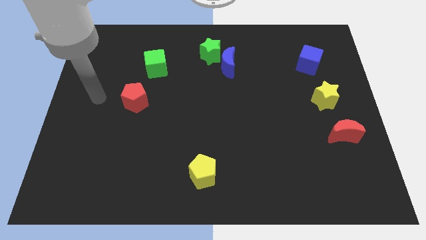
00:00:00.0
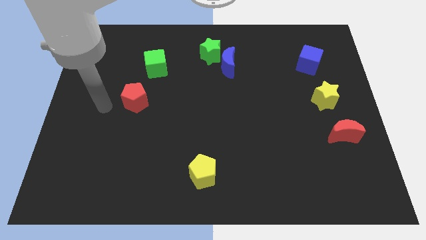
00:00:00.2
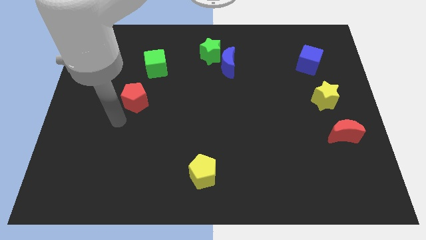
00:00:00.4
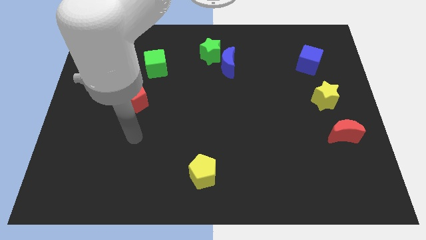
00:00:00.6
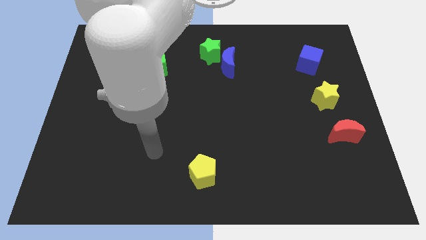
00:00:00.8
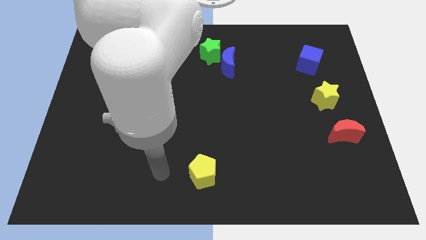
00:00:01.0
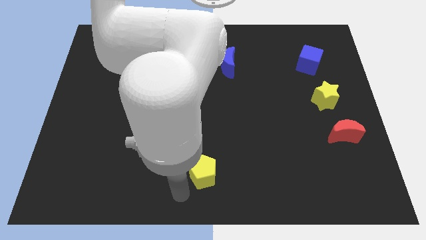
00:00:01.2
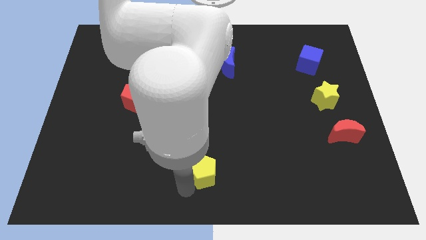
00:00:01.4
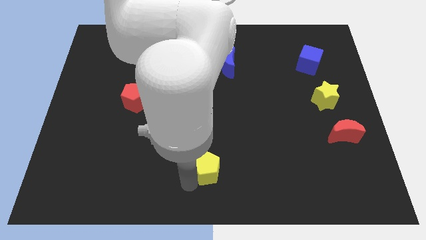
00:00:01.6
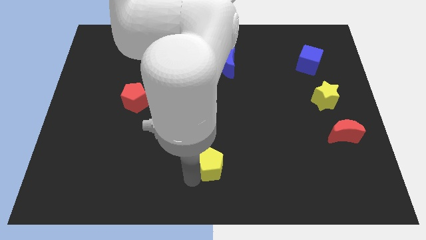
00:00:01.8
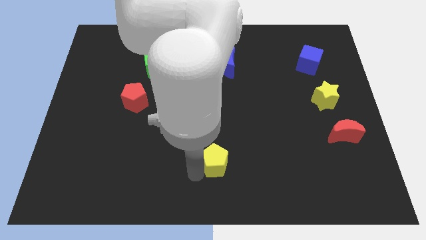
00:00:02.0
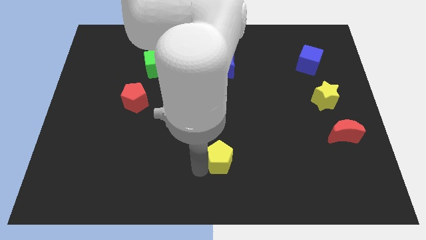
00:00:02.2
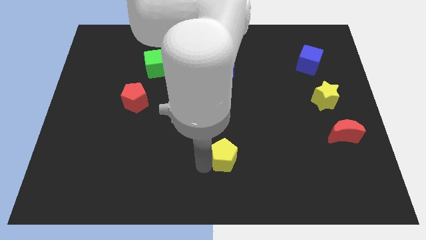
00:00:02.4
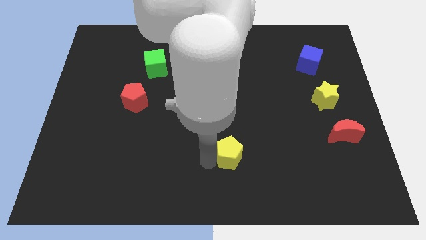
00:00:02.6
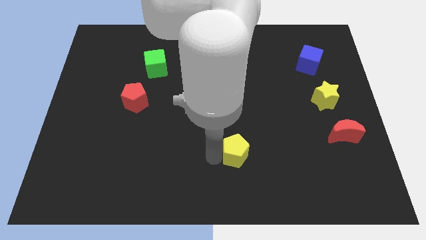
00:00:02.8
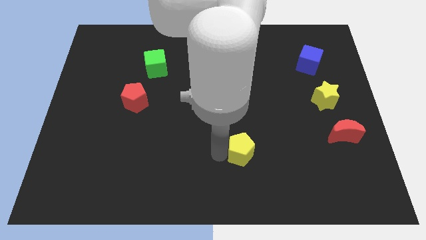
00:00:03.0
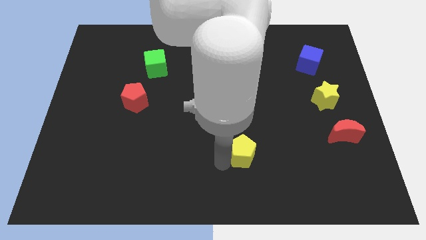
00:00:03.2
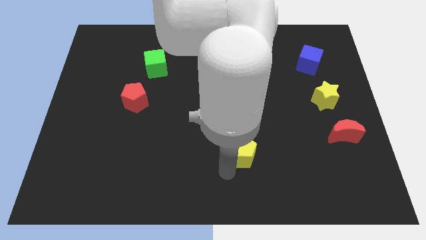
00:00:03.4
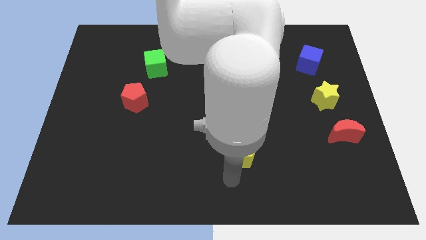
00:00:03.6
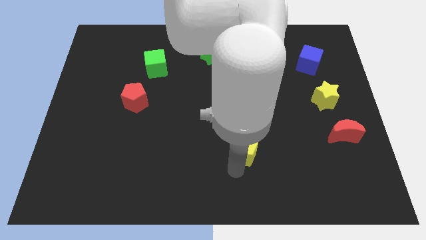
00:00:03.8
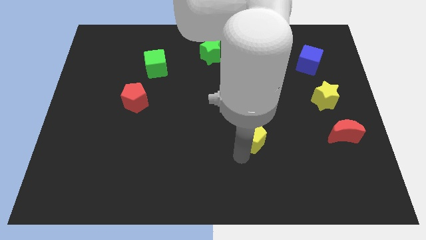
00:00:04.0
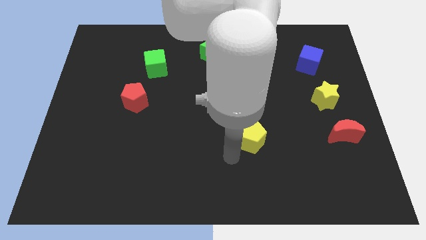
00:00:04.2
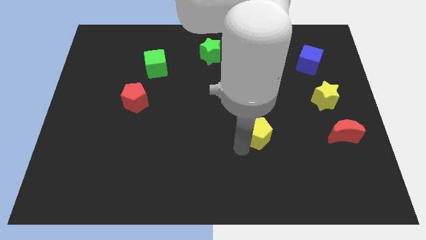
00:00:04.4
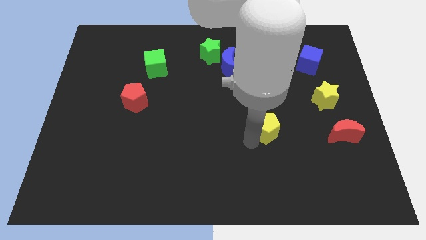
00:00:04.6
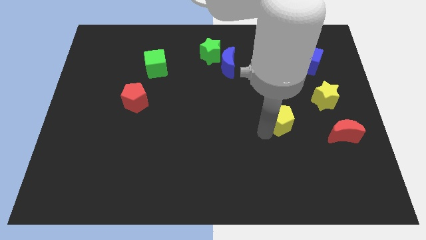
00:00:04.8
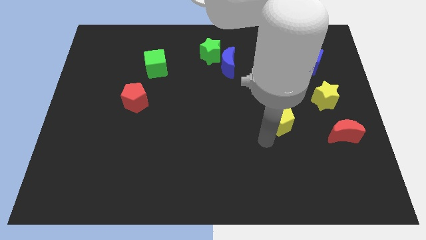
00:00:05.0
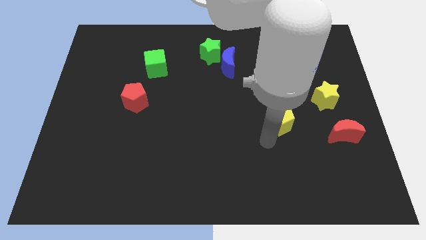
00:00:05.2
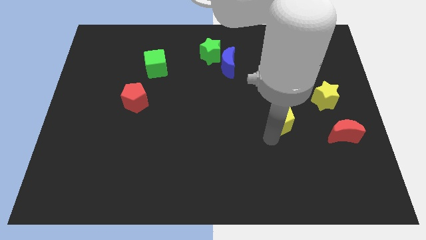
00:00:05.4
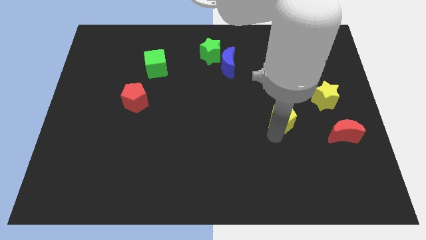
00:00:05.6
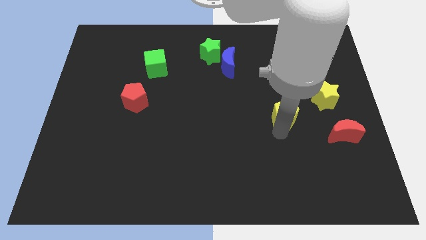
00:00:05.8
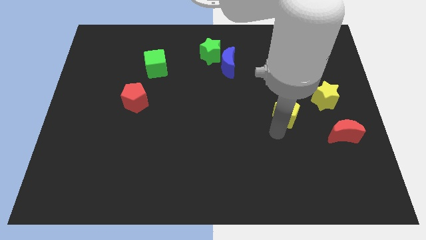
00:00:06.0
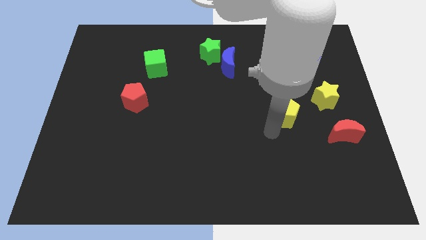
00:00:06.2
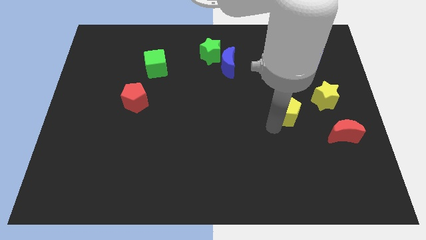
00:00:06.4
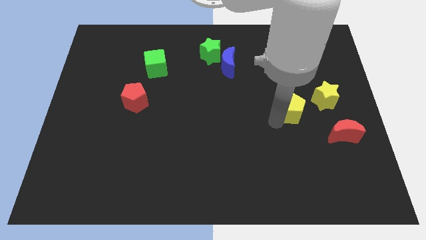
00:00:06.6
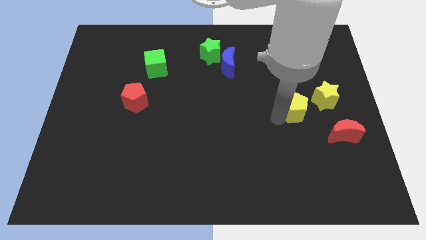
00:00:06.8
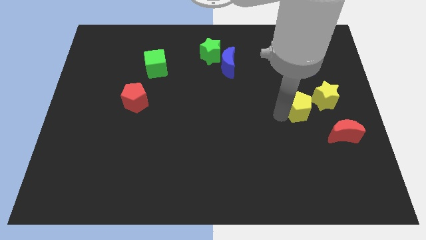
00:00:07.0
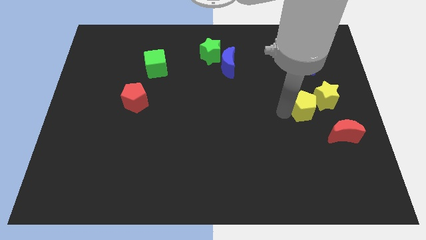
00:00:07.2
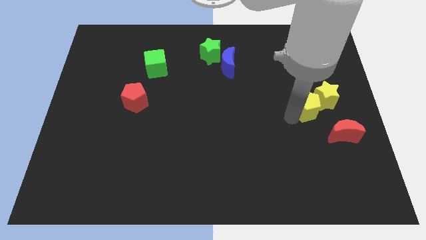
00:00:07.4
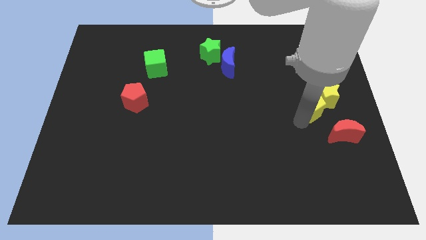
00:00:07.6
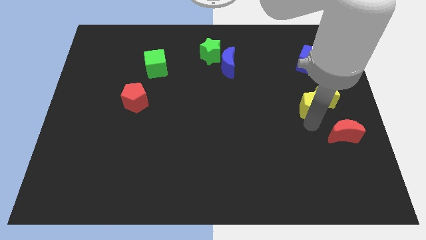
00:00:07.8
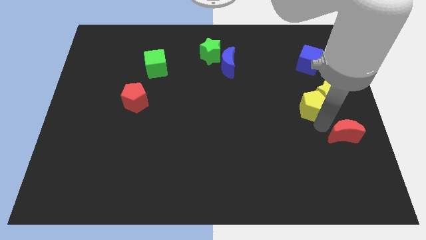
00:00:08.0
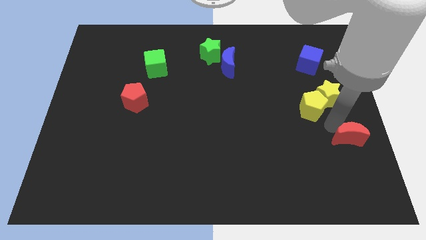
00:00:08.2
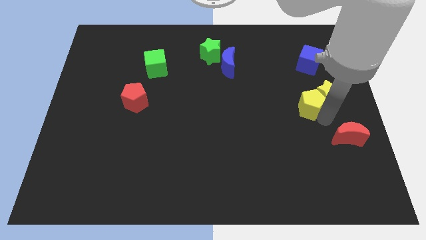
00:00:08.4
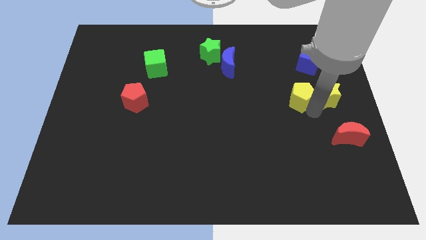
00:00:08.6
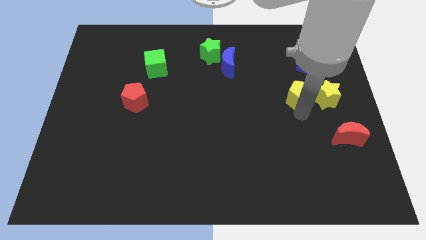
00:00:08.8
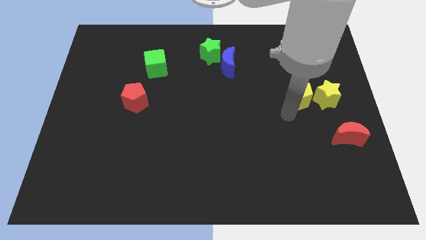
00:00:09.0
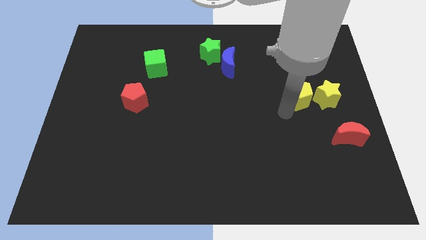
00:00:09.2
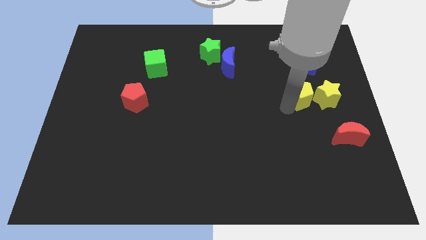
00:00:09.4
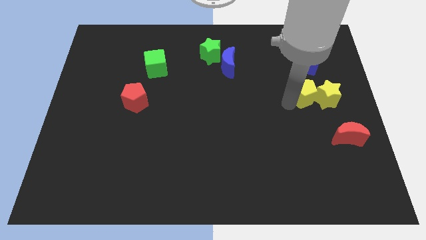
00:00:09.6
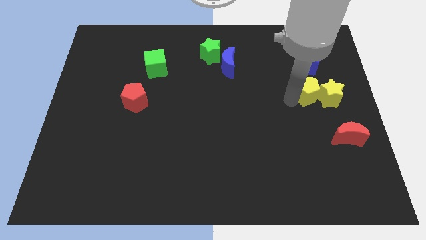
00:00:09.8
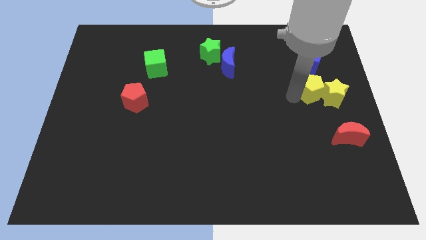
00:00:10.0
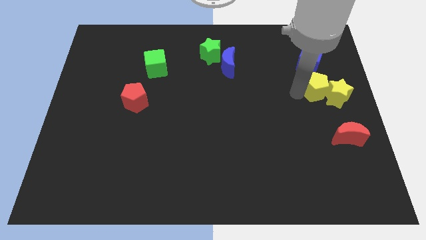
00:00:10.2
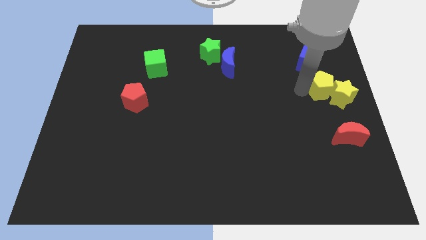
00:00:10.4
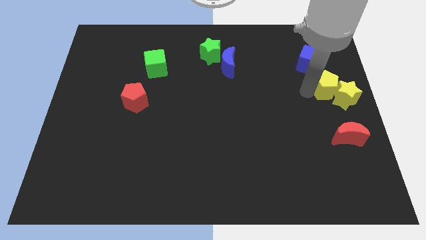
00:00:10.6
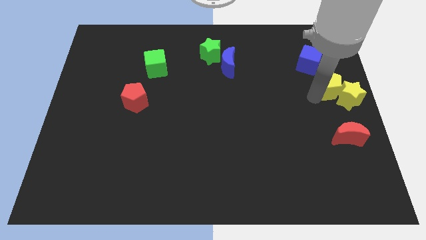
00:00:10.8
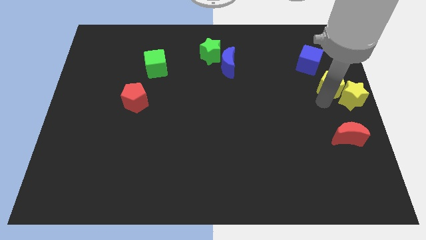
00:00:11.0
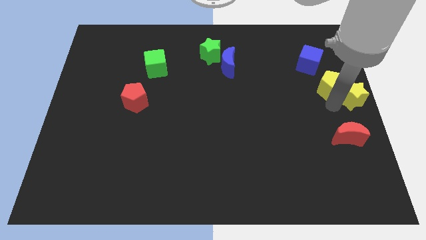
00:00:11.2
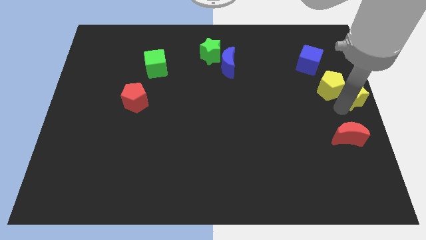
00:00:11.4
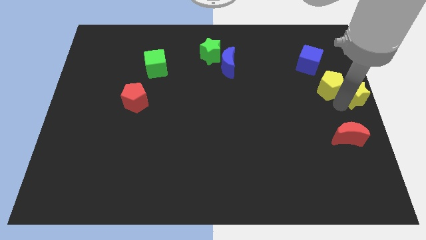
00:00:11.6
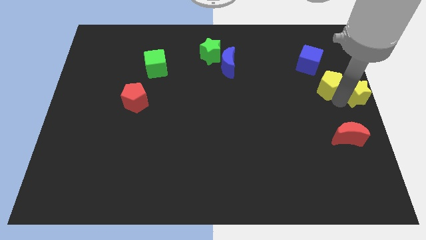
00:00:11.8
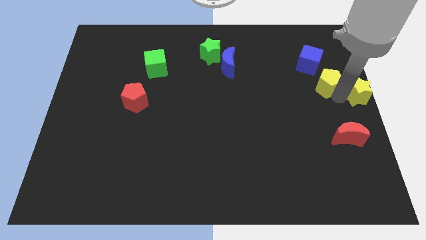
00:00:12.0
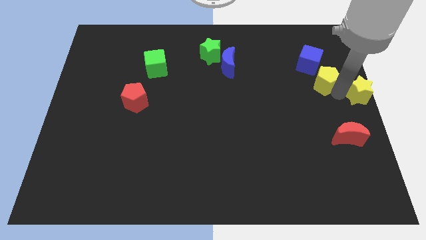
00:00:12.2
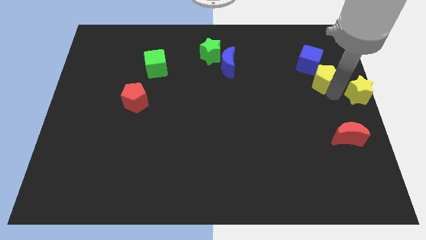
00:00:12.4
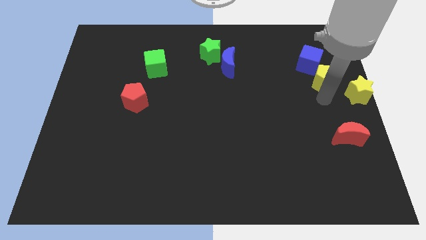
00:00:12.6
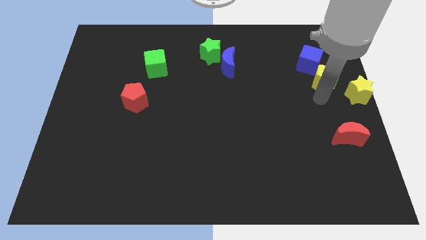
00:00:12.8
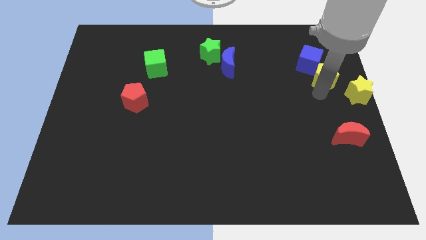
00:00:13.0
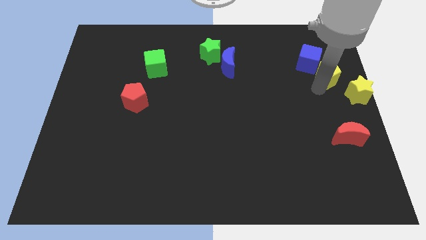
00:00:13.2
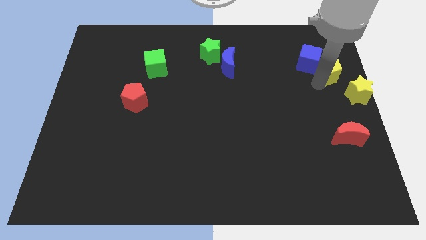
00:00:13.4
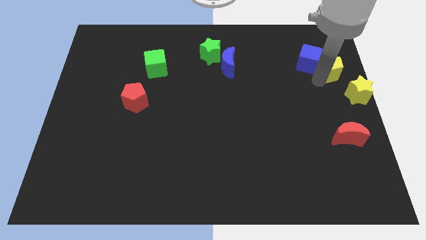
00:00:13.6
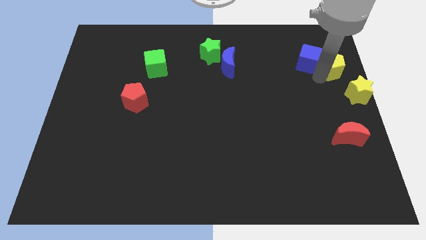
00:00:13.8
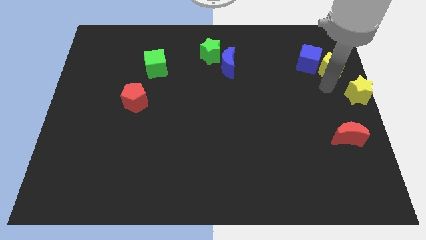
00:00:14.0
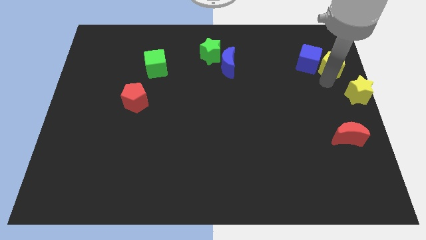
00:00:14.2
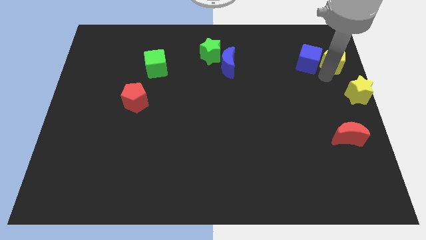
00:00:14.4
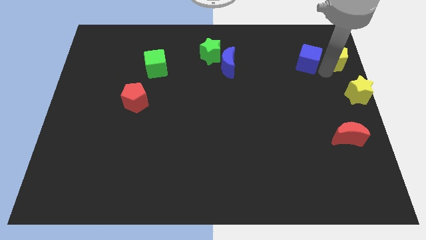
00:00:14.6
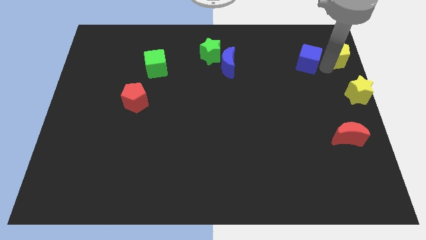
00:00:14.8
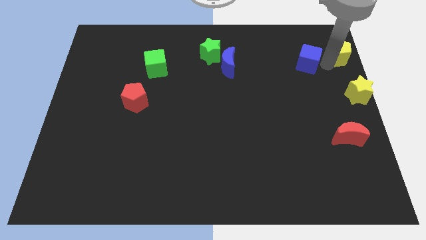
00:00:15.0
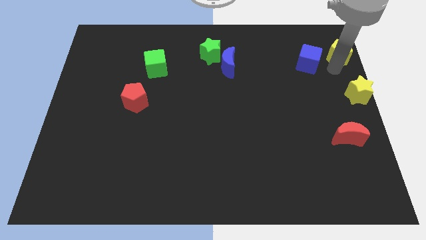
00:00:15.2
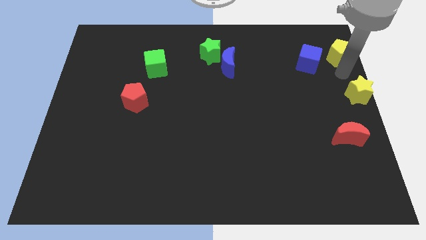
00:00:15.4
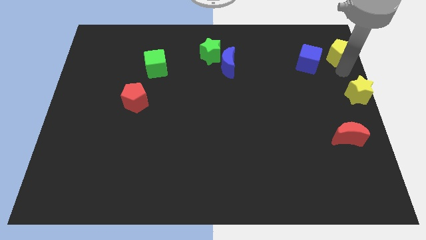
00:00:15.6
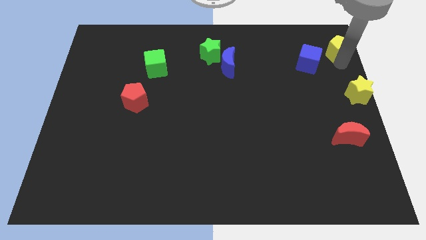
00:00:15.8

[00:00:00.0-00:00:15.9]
slide the yellow pentagon to the top right corner

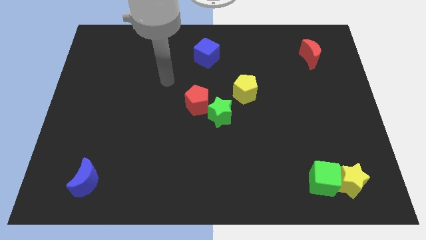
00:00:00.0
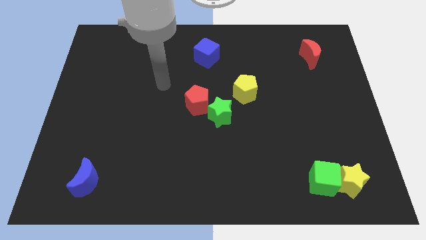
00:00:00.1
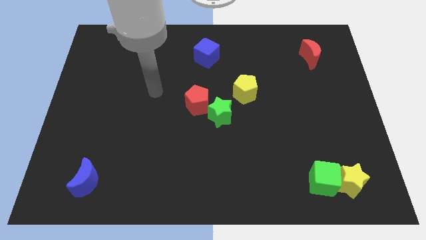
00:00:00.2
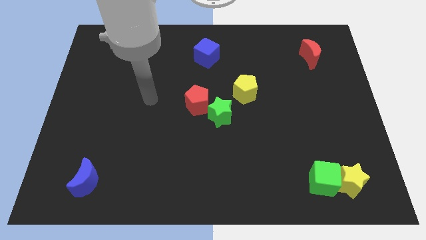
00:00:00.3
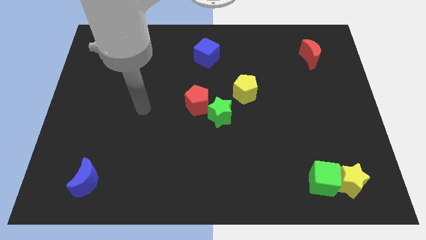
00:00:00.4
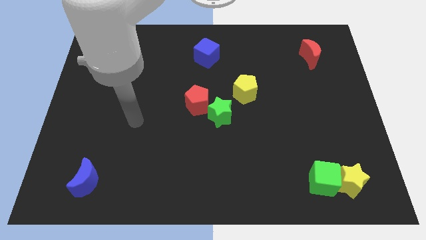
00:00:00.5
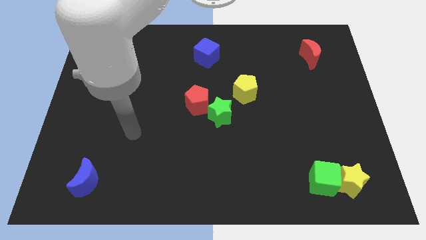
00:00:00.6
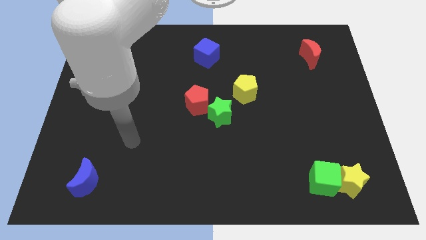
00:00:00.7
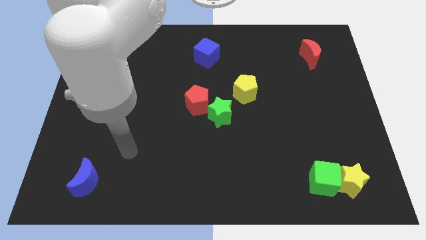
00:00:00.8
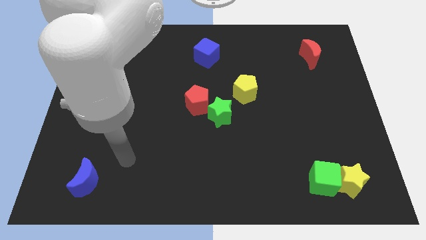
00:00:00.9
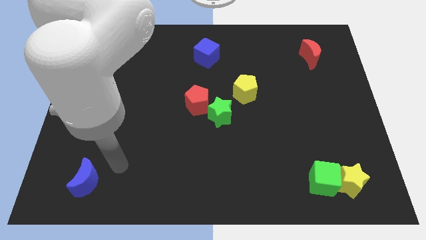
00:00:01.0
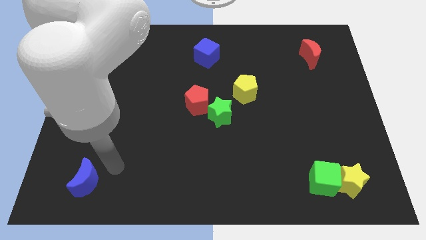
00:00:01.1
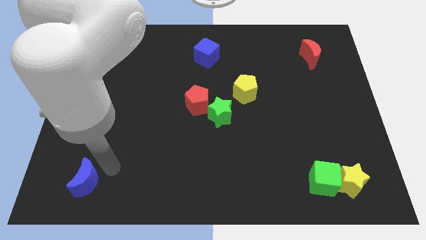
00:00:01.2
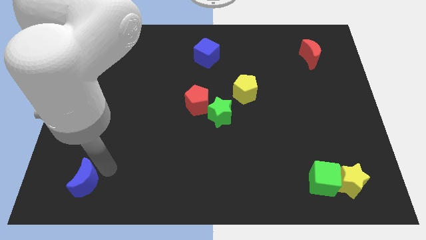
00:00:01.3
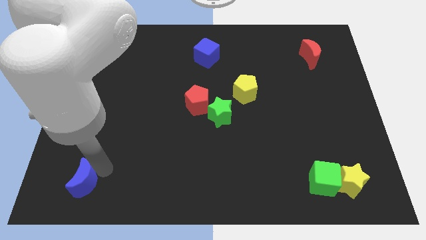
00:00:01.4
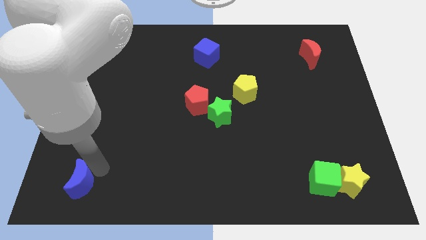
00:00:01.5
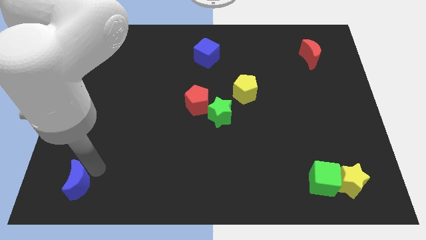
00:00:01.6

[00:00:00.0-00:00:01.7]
slide the blue moon to the bottom left corner
